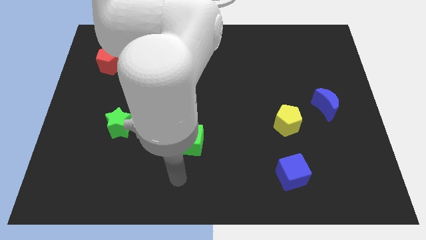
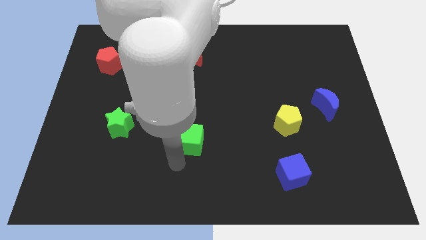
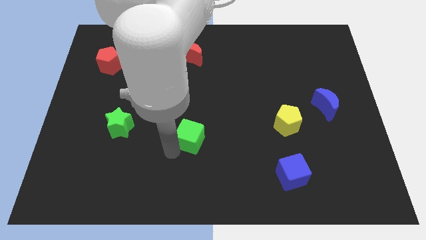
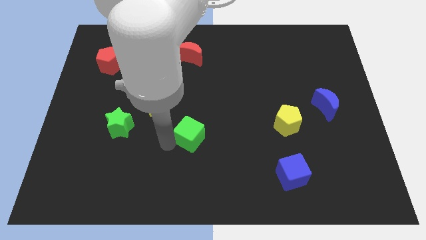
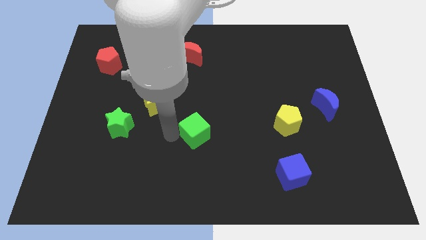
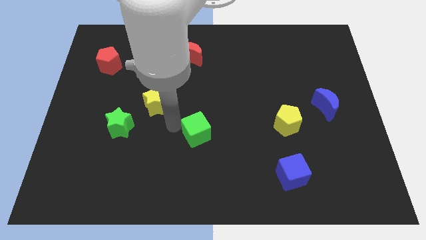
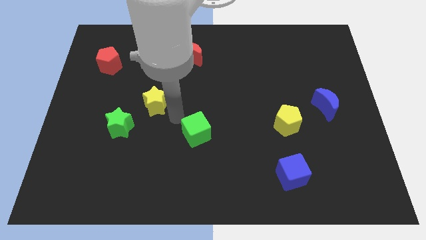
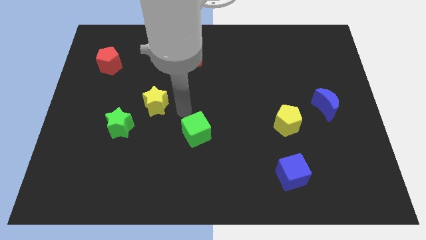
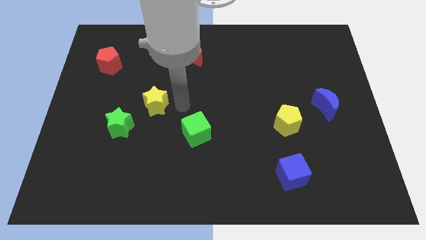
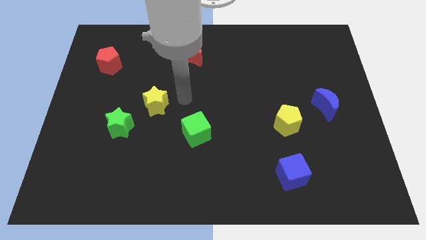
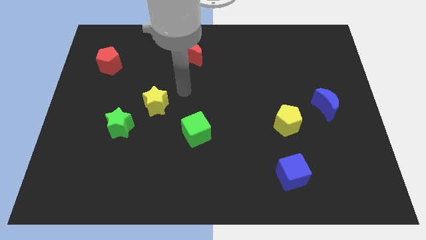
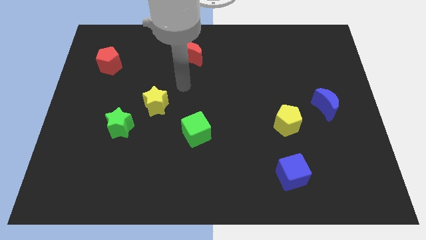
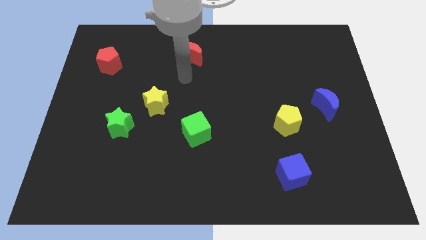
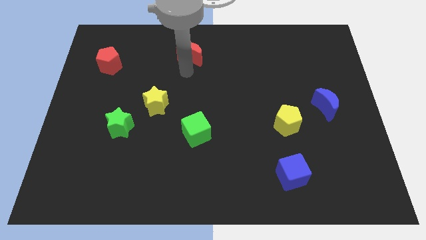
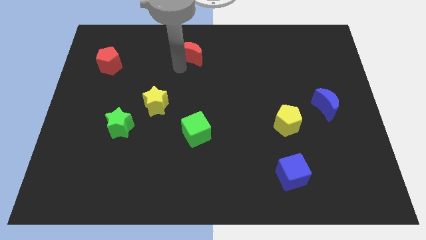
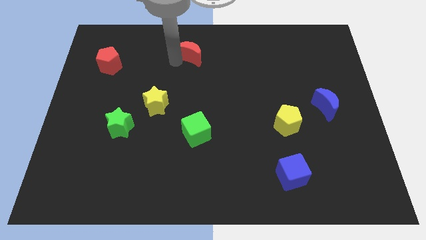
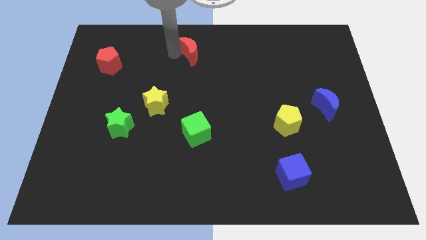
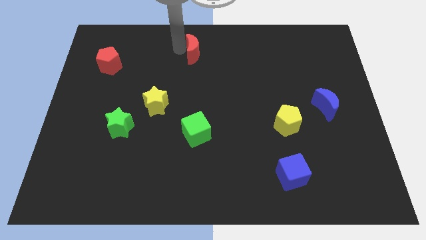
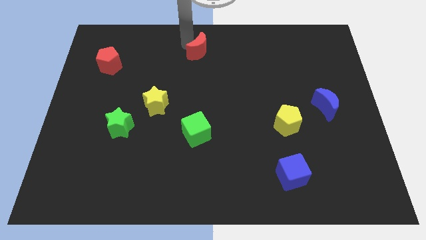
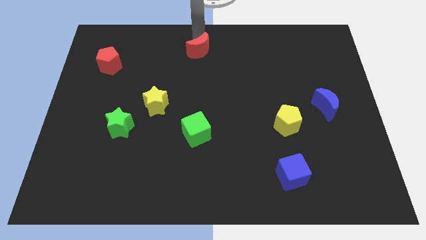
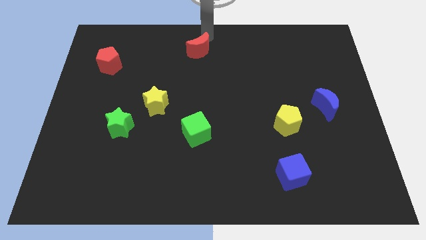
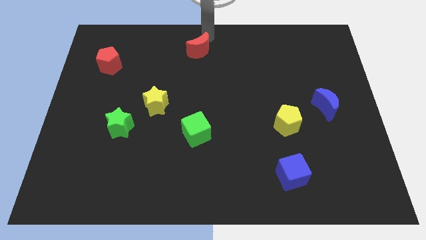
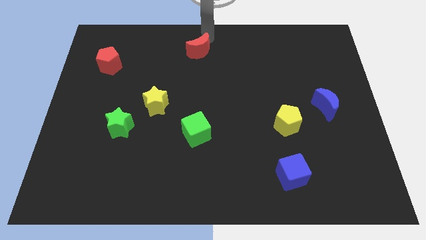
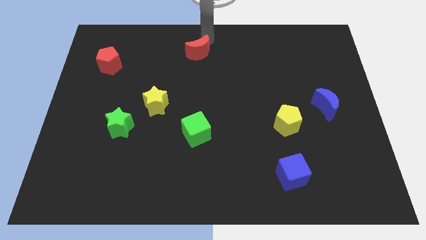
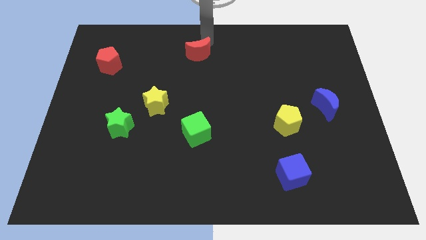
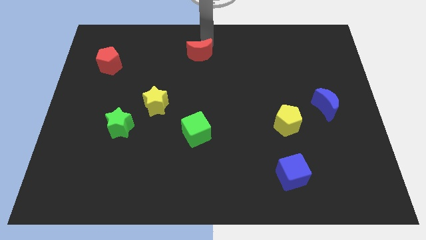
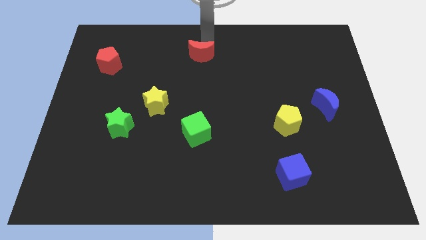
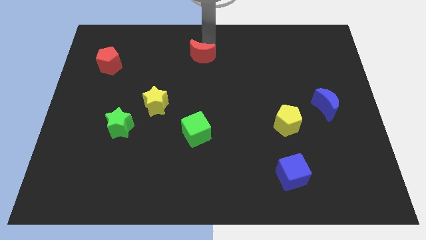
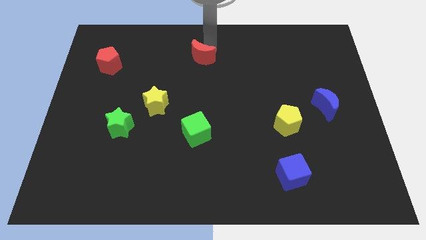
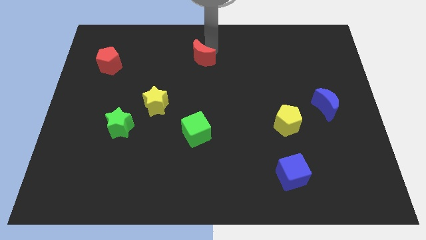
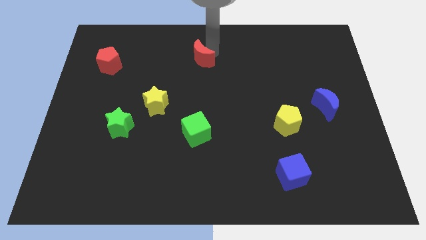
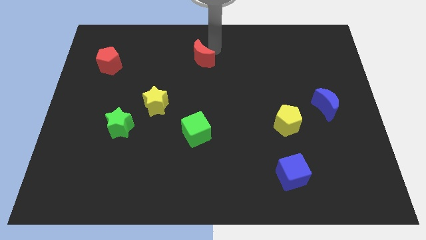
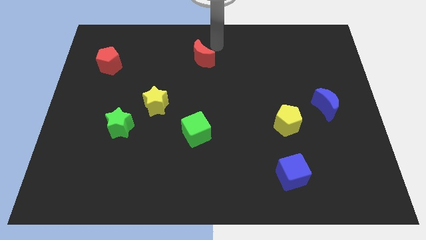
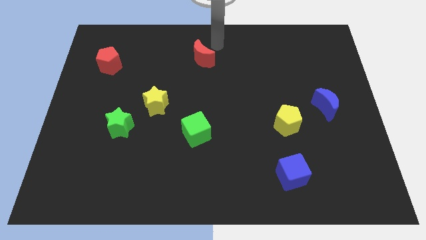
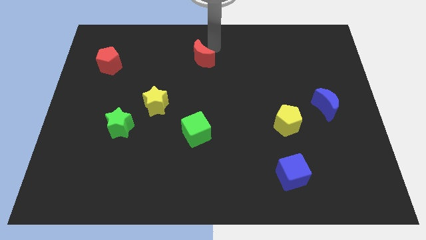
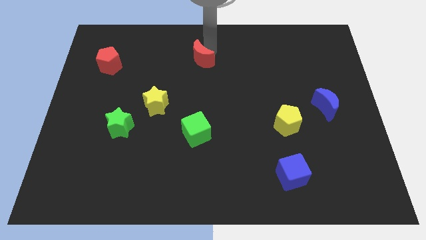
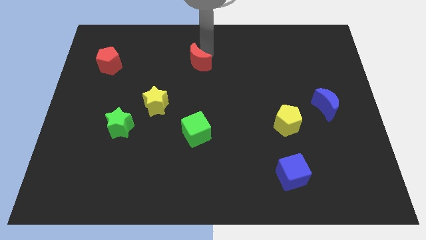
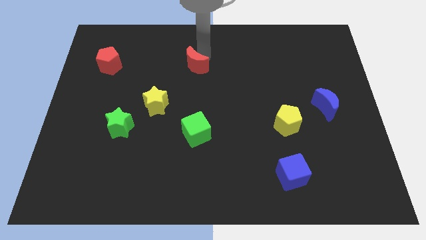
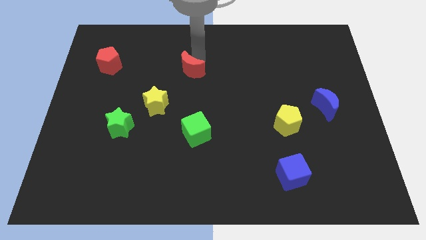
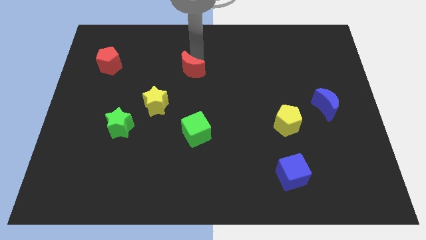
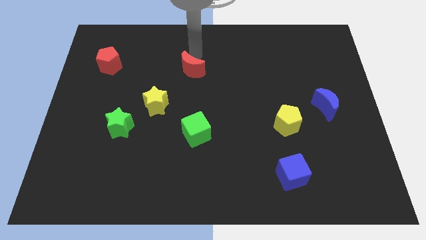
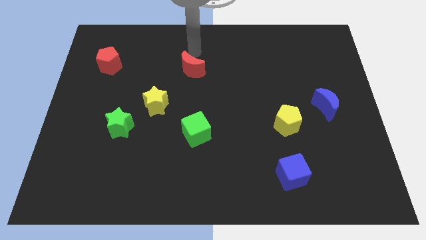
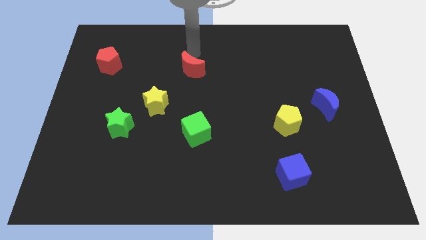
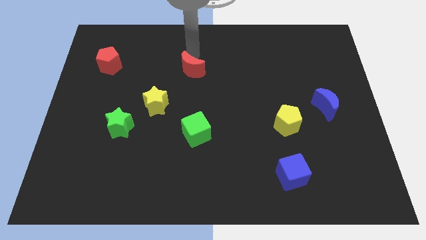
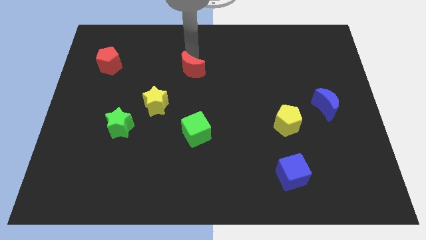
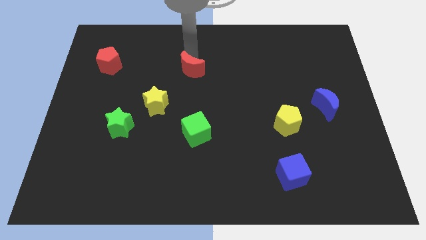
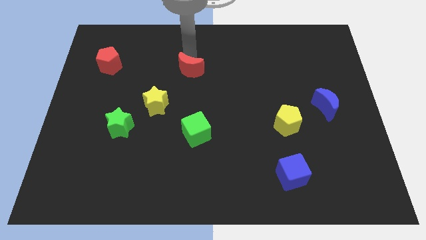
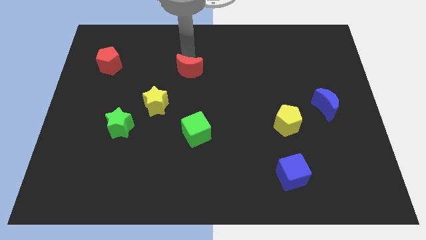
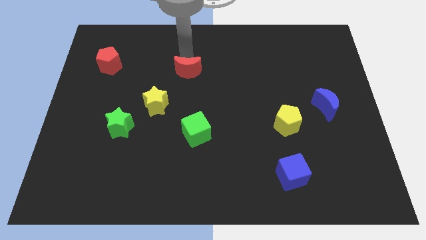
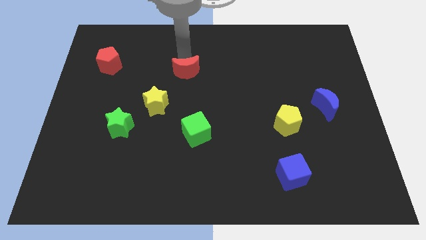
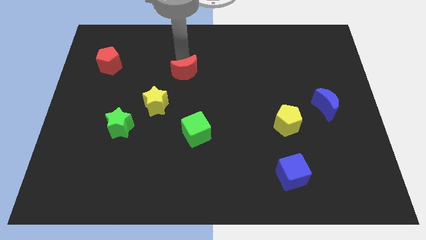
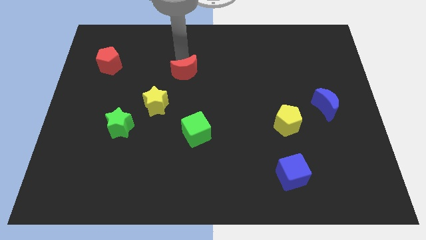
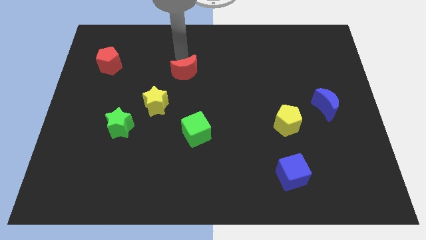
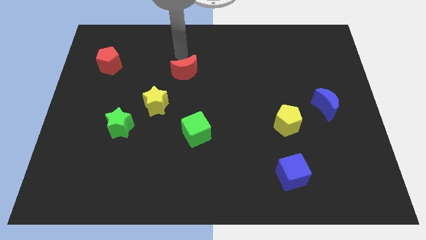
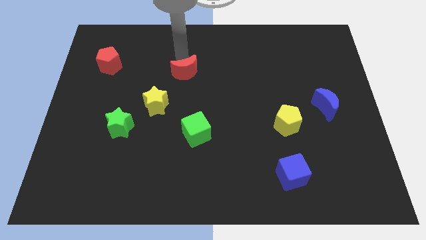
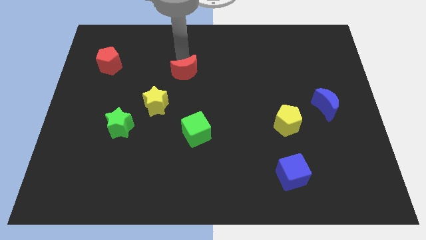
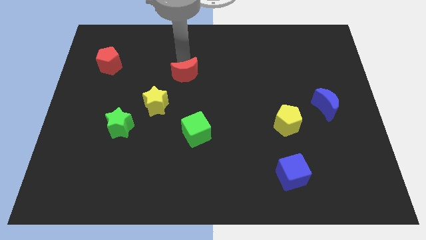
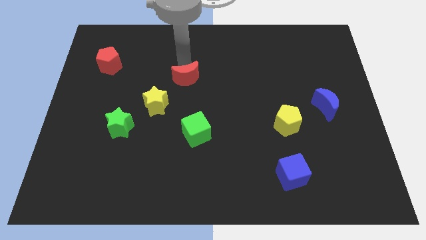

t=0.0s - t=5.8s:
move the red moon a bit down

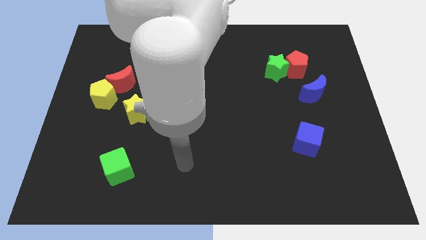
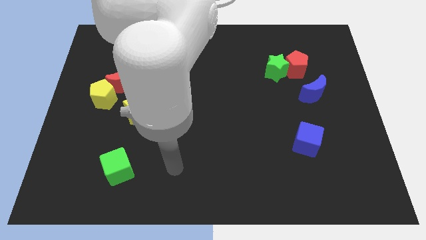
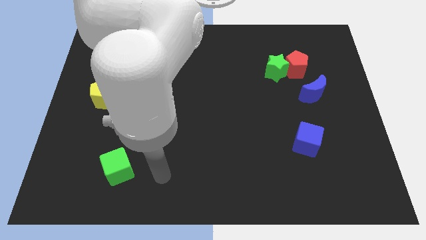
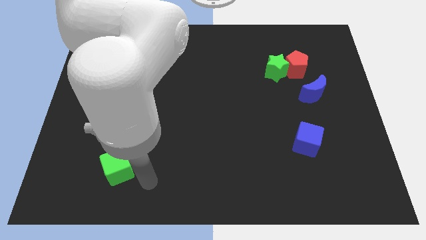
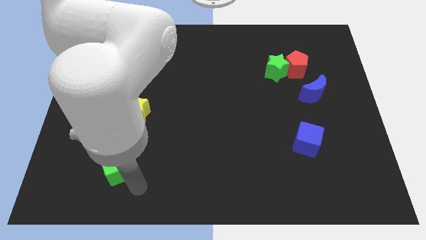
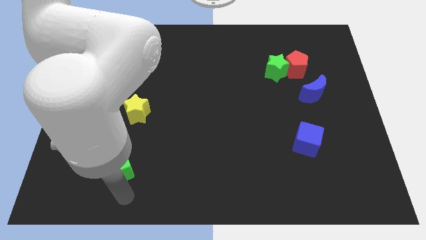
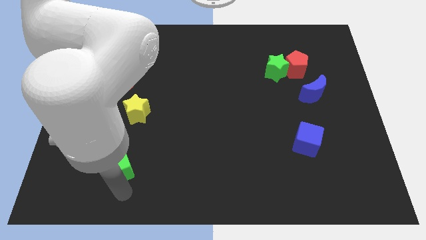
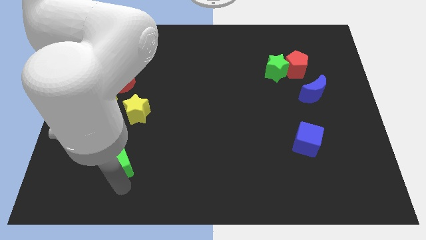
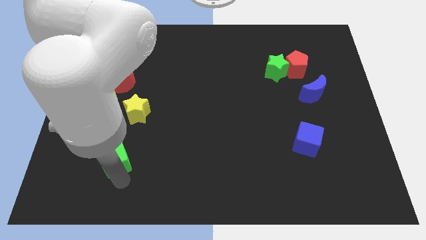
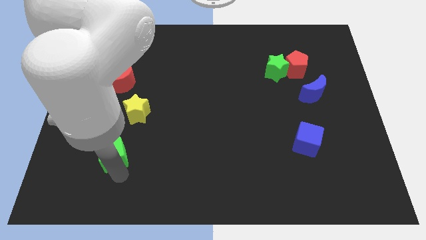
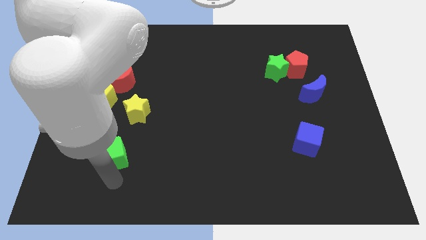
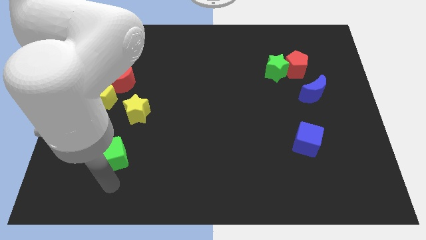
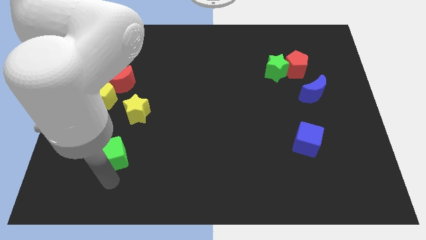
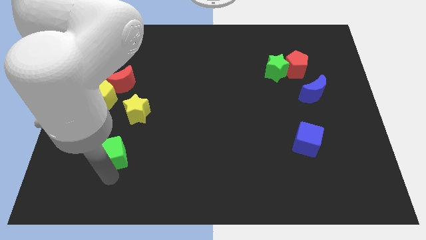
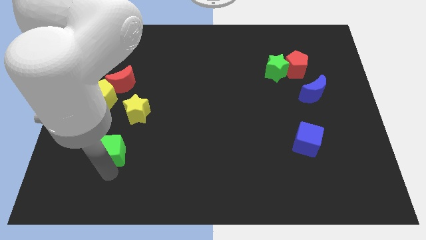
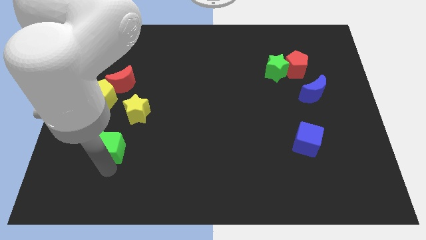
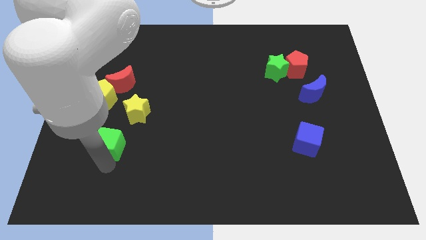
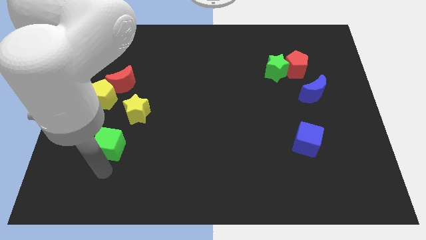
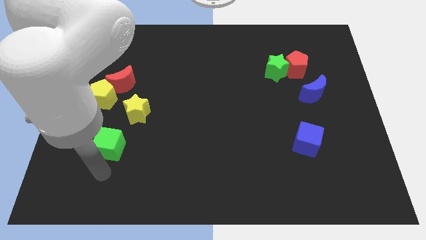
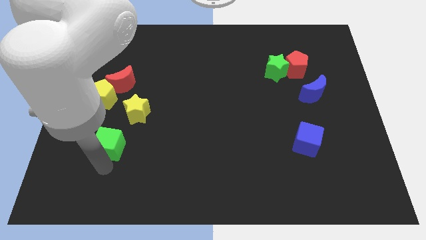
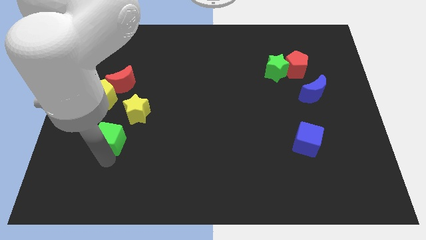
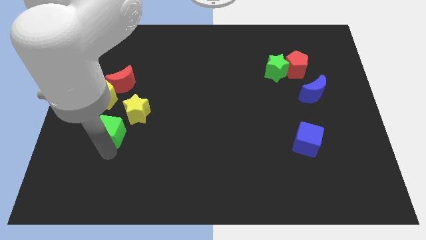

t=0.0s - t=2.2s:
slightly move the green cube upwards

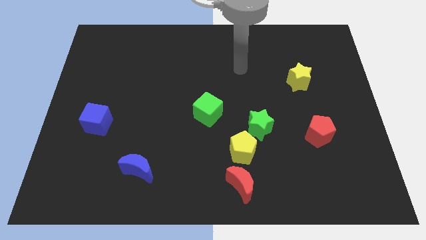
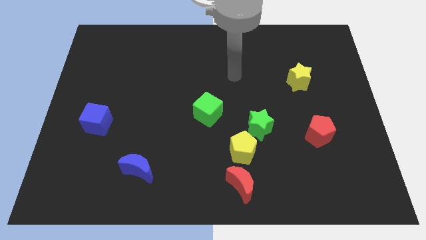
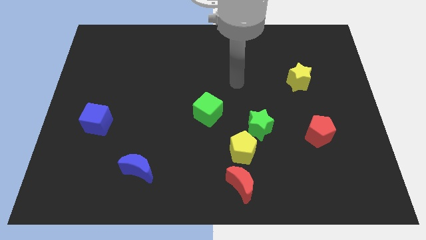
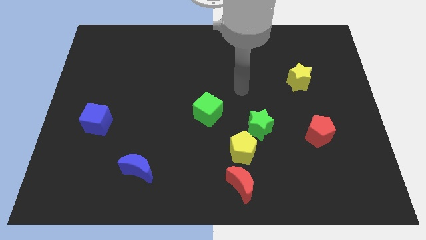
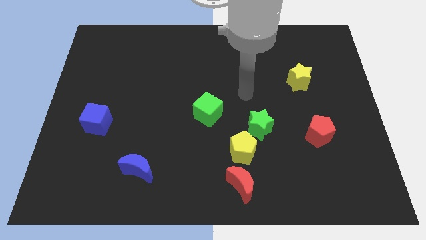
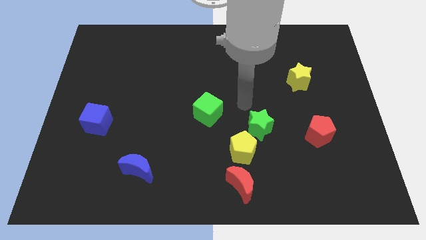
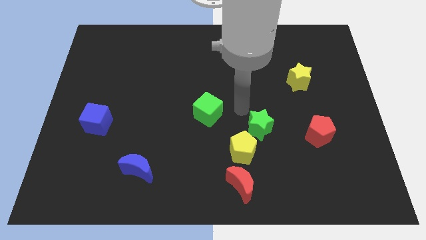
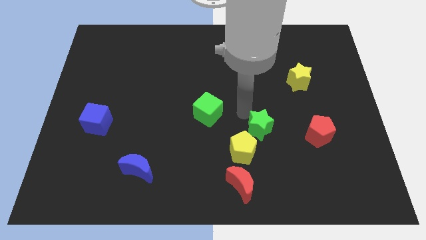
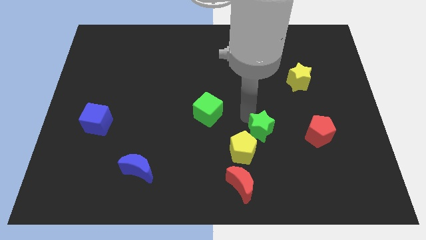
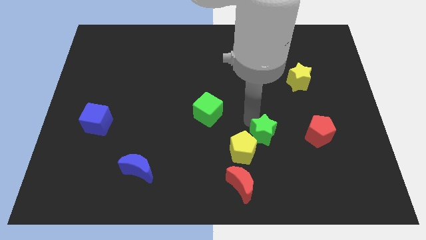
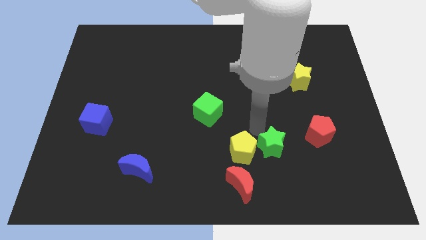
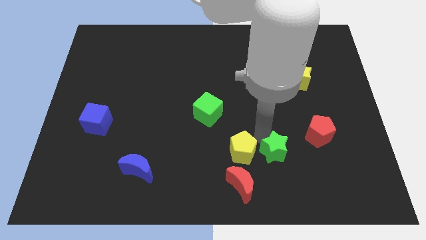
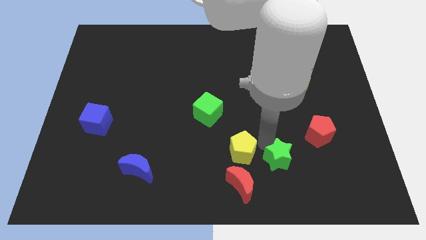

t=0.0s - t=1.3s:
push the green star down and right a little
